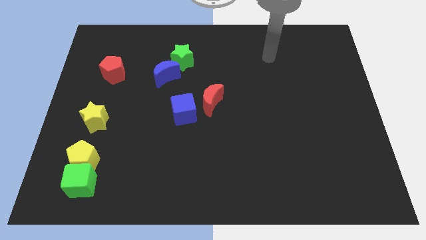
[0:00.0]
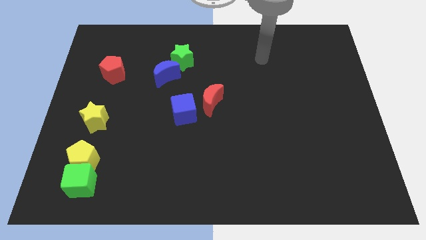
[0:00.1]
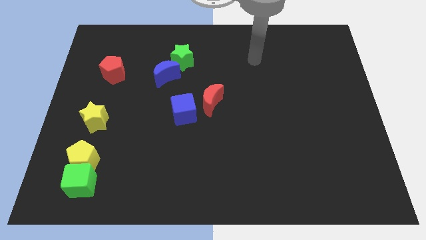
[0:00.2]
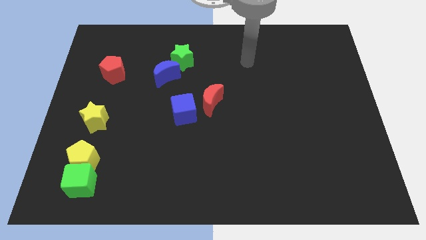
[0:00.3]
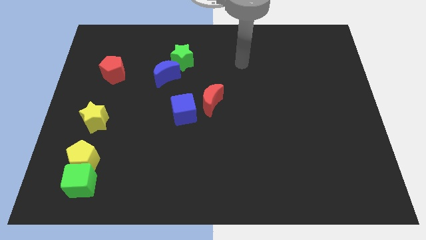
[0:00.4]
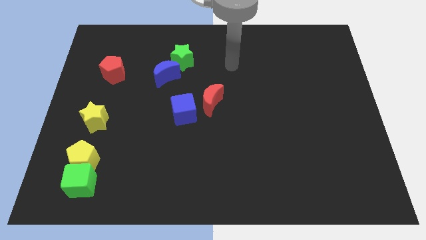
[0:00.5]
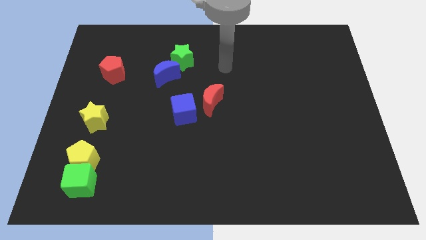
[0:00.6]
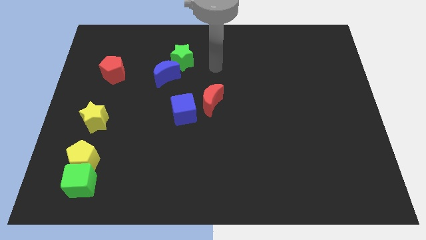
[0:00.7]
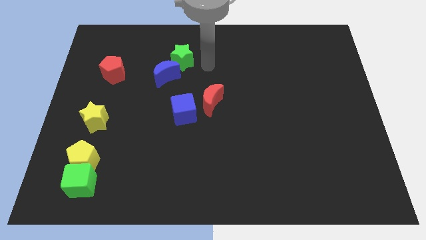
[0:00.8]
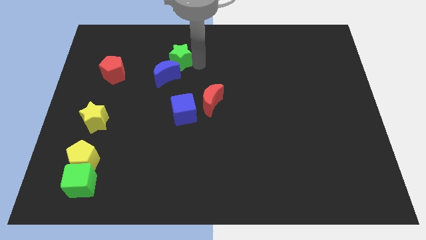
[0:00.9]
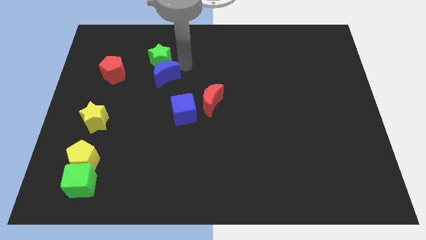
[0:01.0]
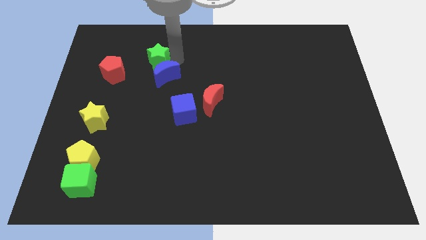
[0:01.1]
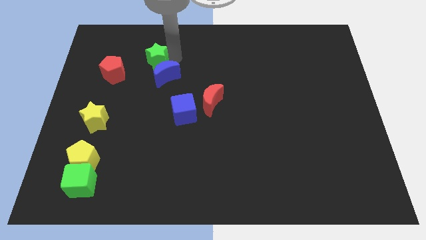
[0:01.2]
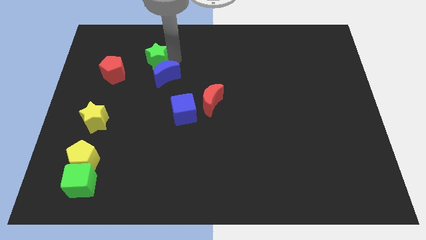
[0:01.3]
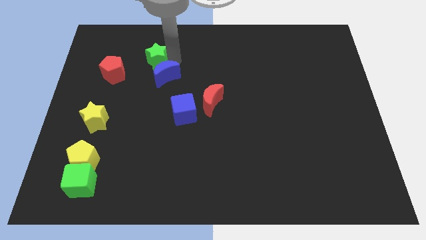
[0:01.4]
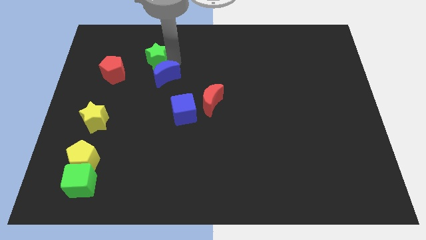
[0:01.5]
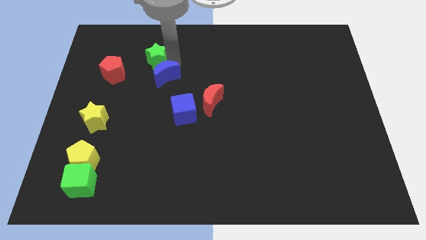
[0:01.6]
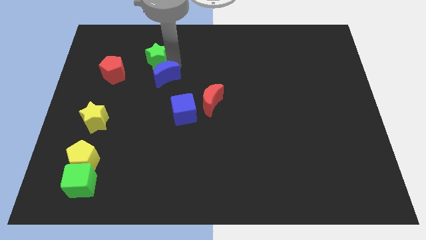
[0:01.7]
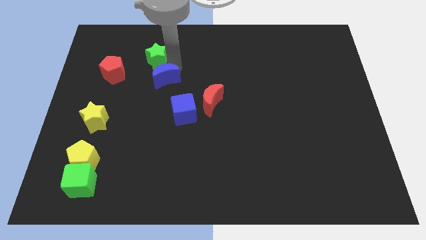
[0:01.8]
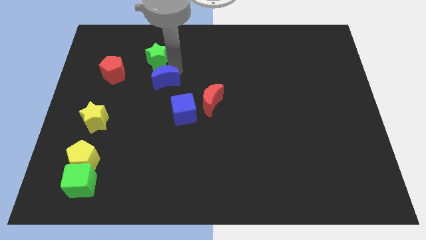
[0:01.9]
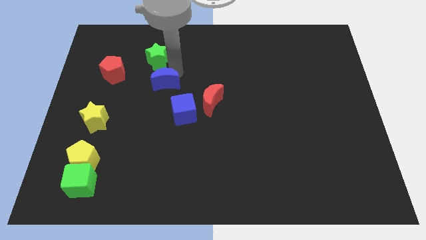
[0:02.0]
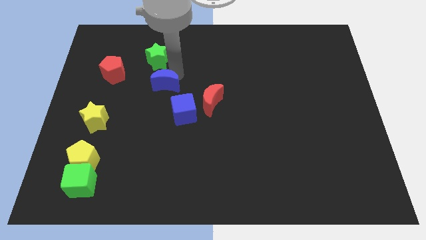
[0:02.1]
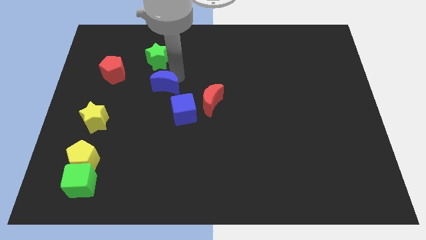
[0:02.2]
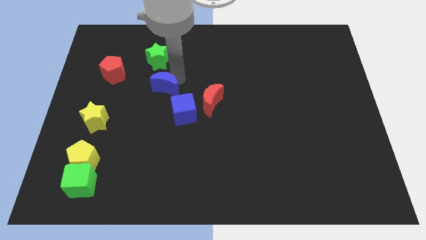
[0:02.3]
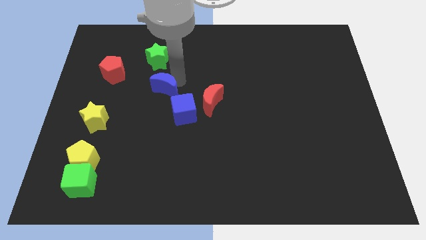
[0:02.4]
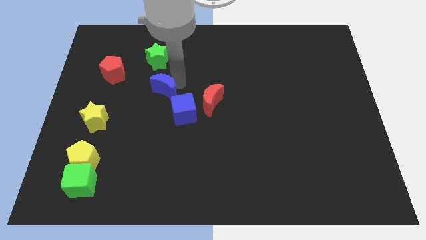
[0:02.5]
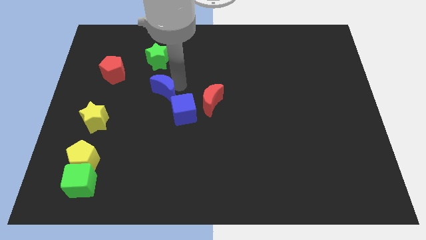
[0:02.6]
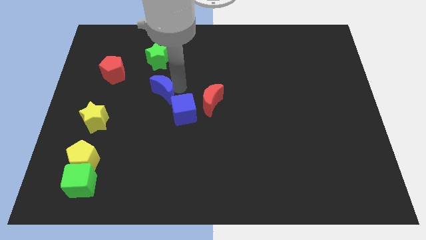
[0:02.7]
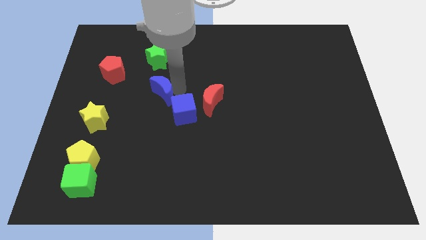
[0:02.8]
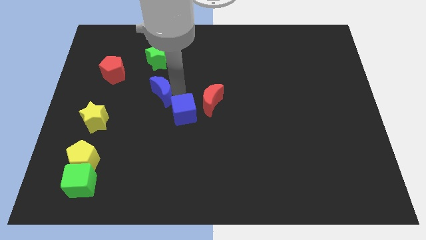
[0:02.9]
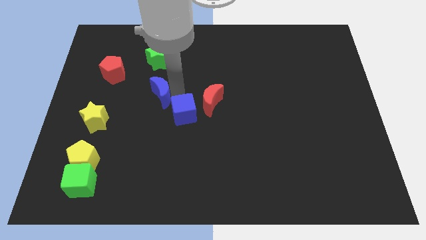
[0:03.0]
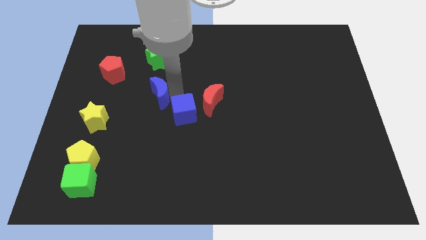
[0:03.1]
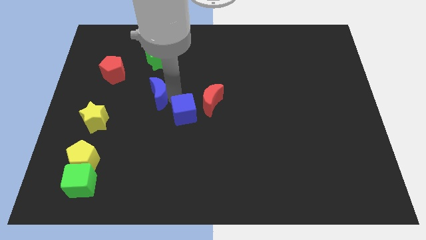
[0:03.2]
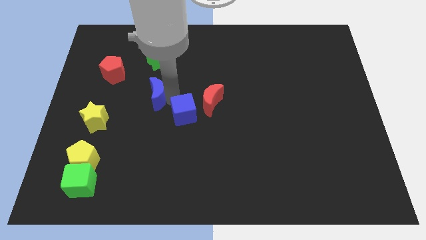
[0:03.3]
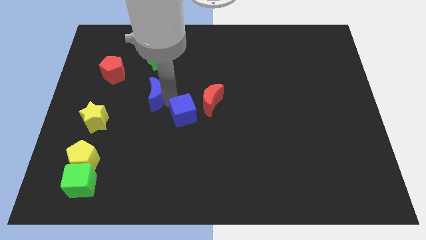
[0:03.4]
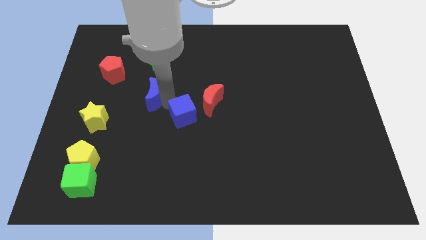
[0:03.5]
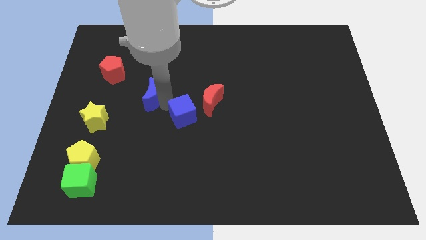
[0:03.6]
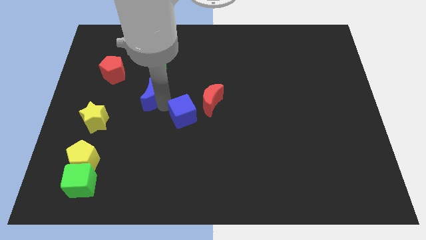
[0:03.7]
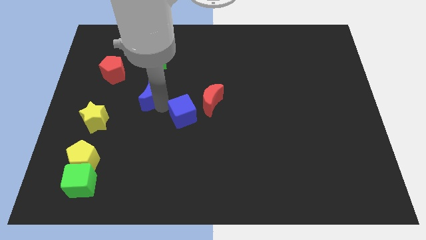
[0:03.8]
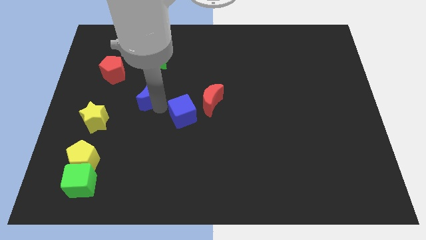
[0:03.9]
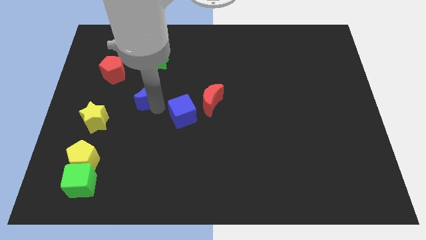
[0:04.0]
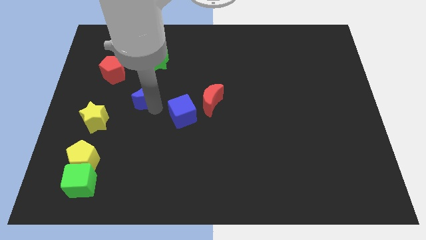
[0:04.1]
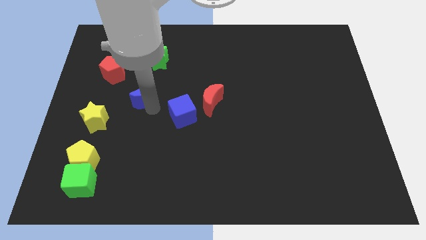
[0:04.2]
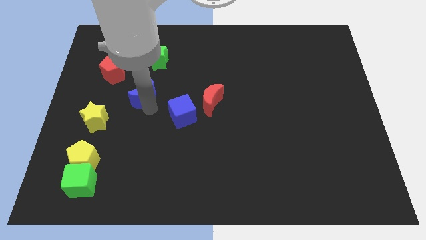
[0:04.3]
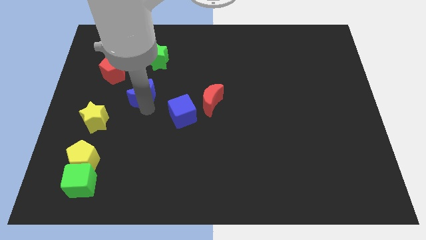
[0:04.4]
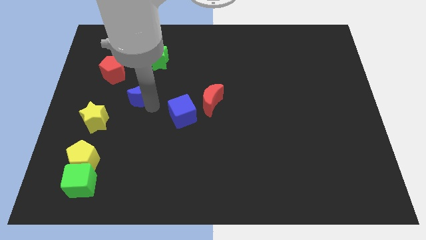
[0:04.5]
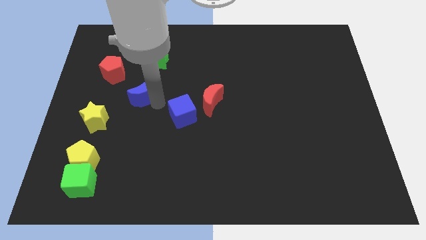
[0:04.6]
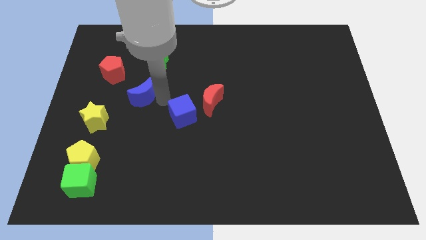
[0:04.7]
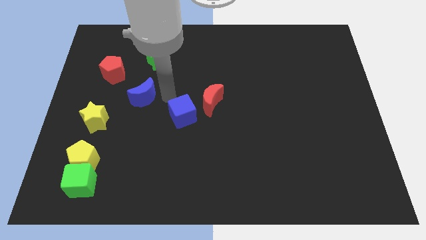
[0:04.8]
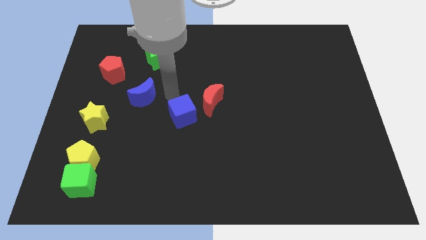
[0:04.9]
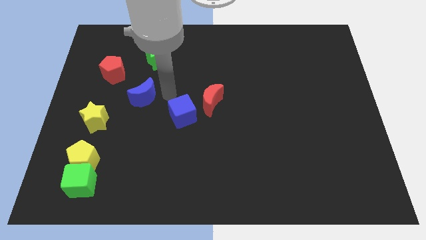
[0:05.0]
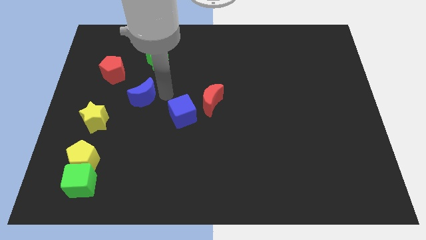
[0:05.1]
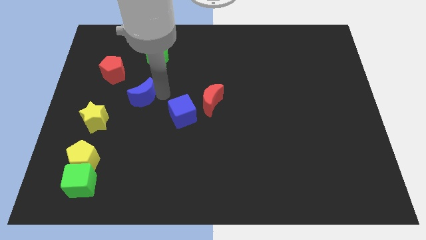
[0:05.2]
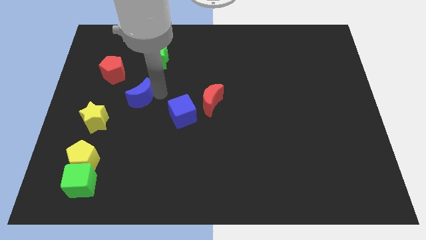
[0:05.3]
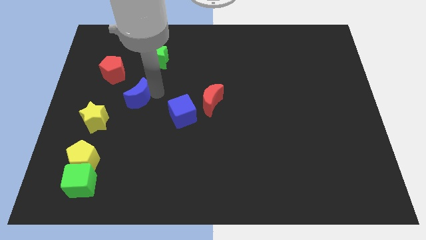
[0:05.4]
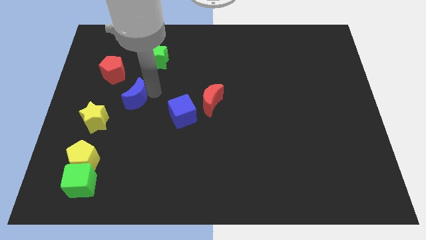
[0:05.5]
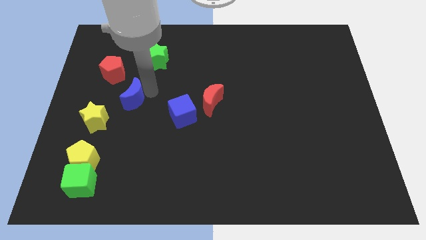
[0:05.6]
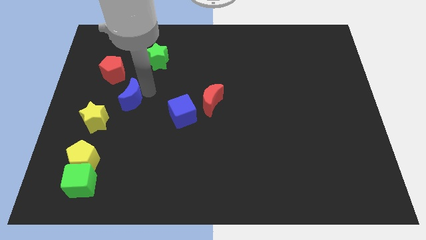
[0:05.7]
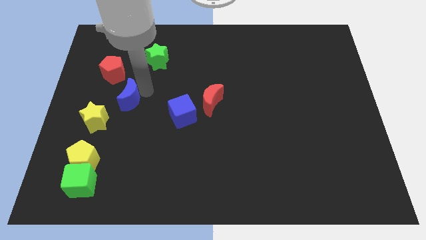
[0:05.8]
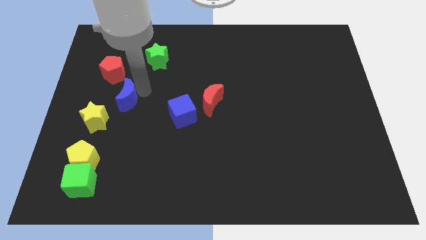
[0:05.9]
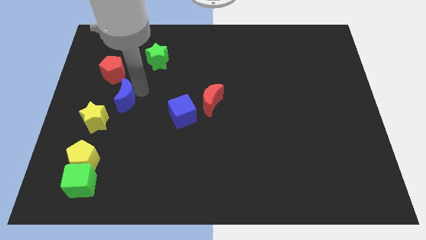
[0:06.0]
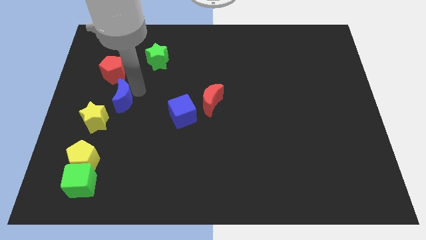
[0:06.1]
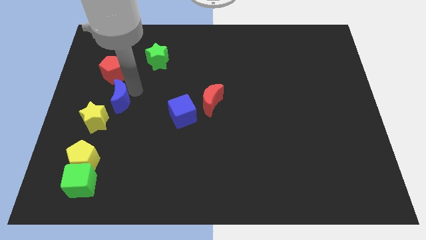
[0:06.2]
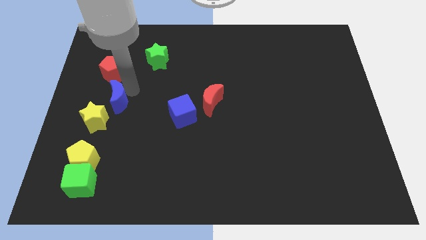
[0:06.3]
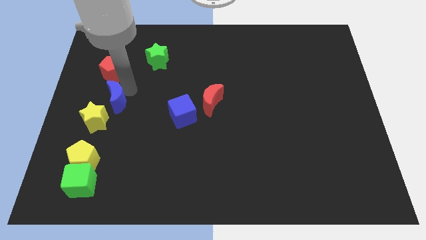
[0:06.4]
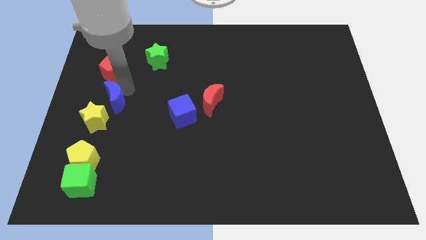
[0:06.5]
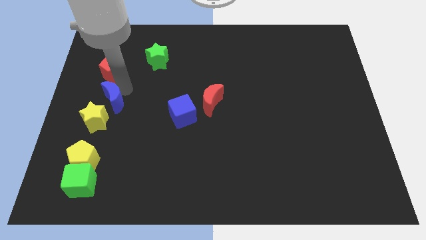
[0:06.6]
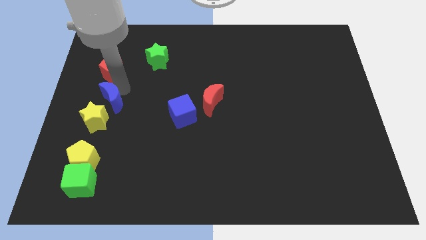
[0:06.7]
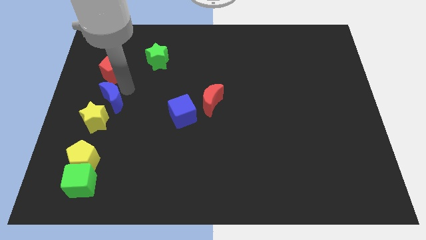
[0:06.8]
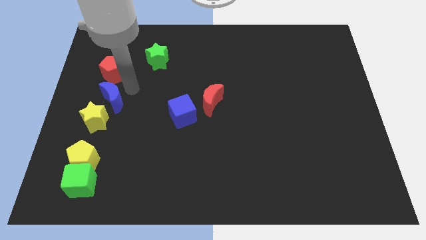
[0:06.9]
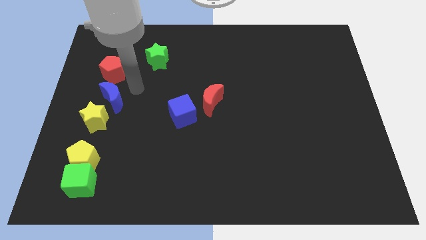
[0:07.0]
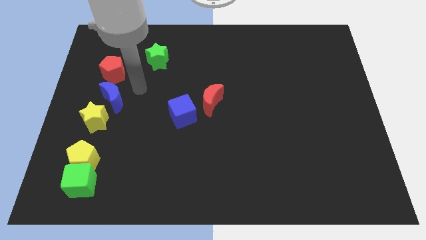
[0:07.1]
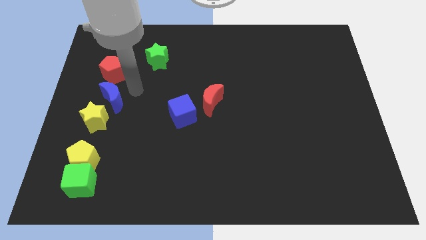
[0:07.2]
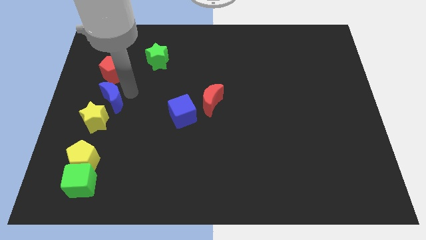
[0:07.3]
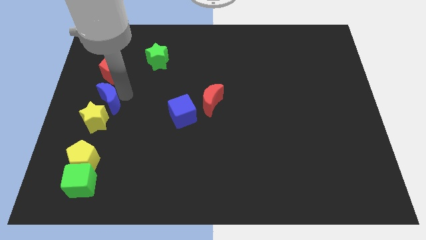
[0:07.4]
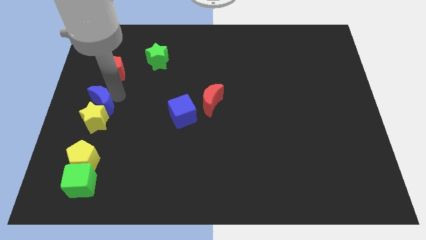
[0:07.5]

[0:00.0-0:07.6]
push the blue moon above the yellow pentagon
